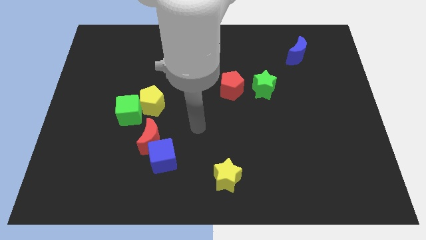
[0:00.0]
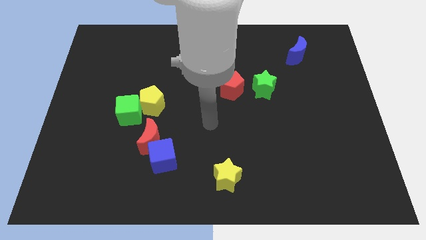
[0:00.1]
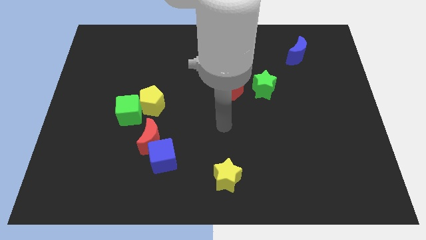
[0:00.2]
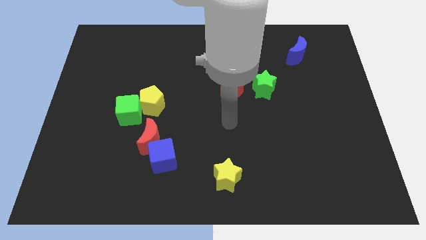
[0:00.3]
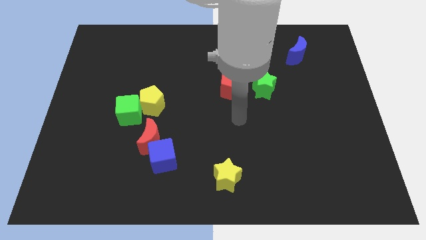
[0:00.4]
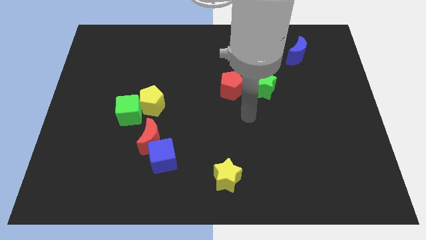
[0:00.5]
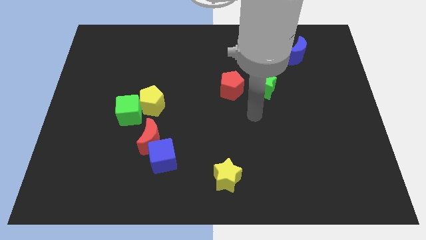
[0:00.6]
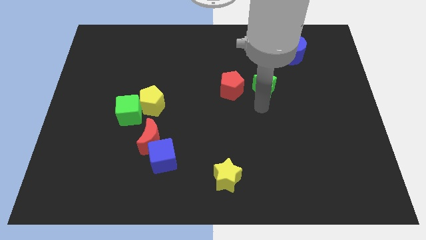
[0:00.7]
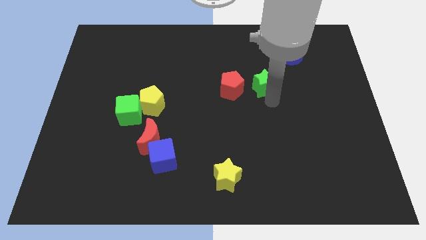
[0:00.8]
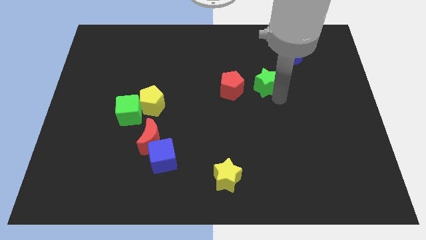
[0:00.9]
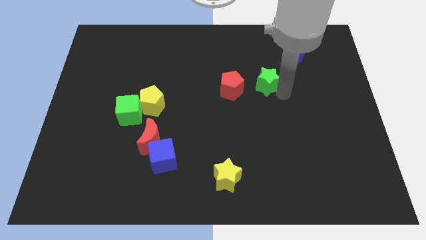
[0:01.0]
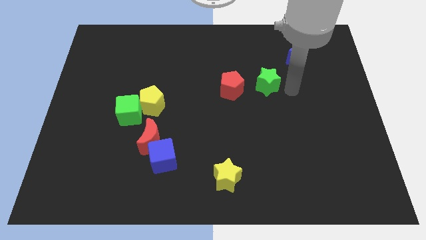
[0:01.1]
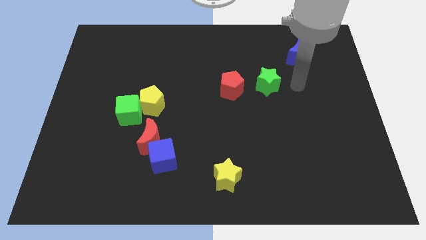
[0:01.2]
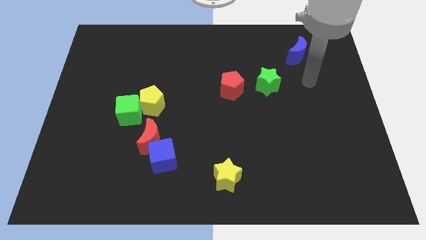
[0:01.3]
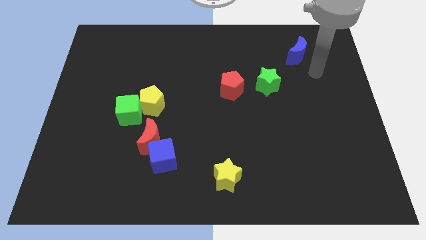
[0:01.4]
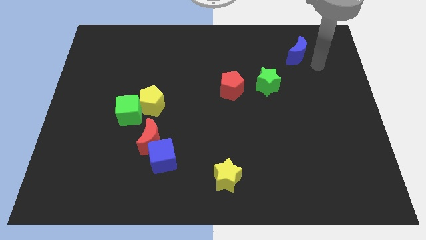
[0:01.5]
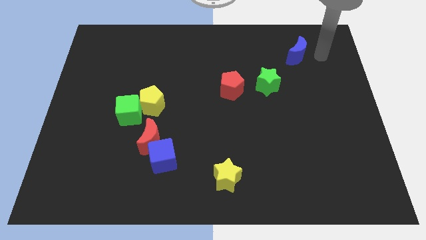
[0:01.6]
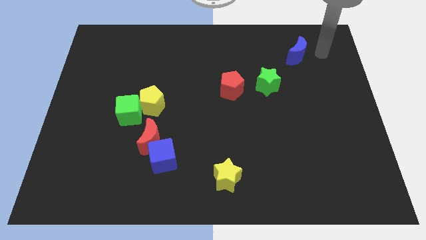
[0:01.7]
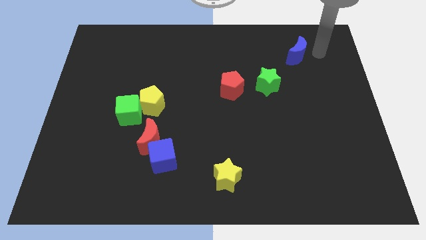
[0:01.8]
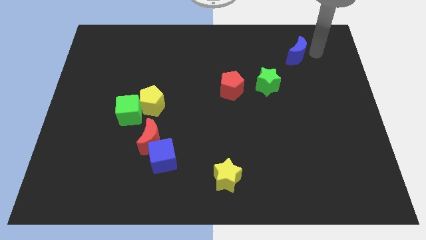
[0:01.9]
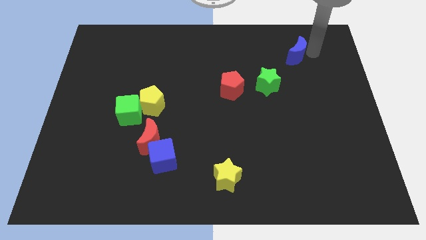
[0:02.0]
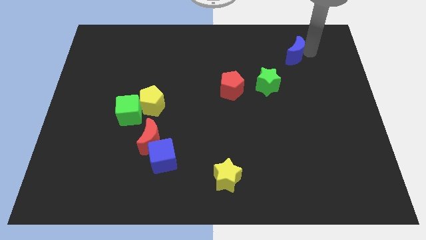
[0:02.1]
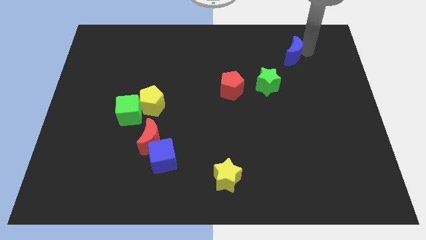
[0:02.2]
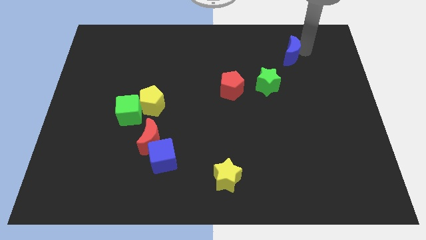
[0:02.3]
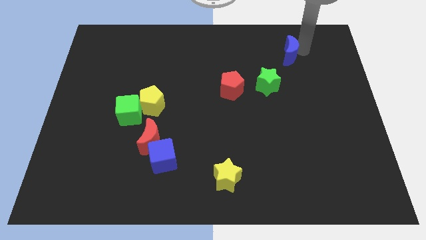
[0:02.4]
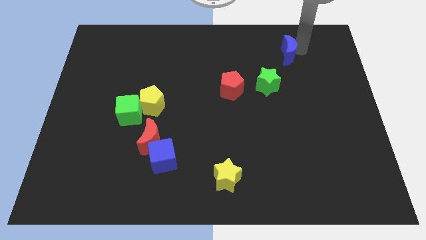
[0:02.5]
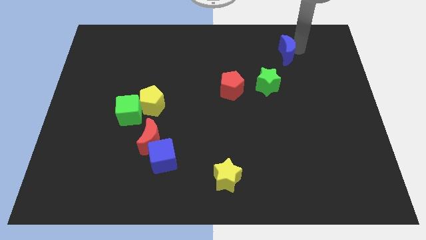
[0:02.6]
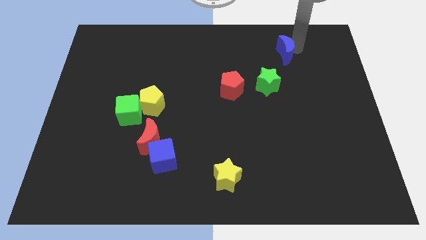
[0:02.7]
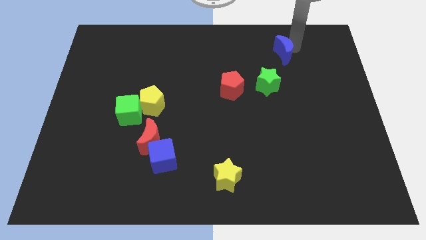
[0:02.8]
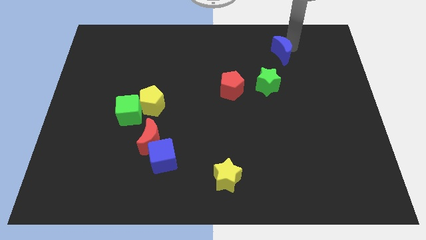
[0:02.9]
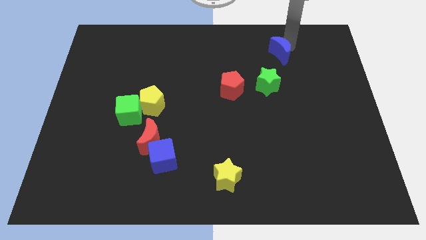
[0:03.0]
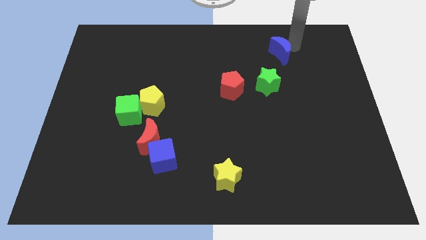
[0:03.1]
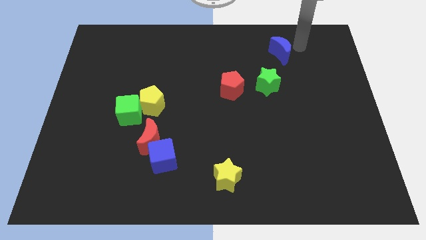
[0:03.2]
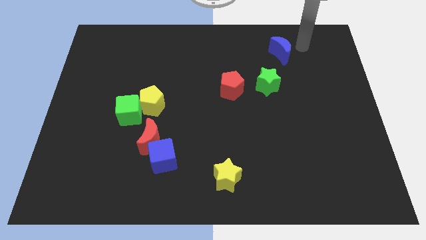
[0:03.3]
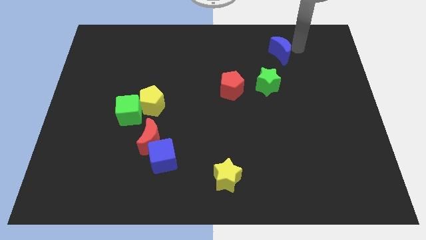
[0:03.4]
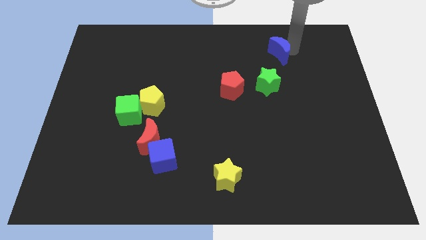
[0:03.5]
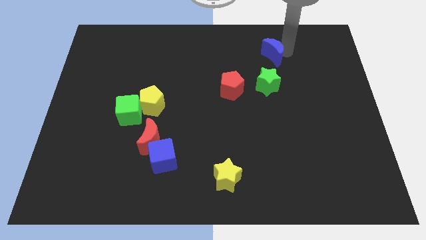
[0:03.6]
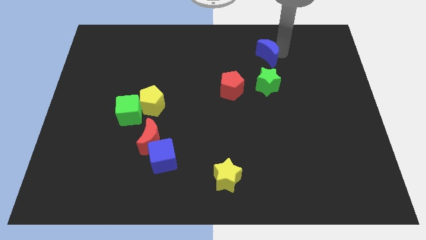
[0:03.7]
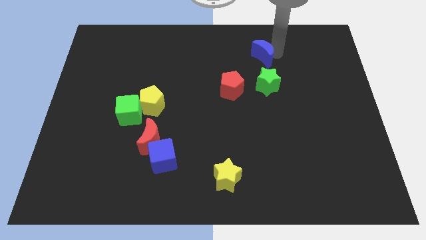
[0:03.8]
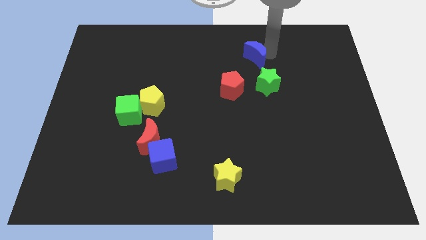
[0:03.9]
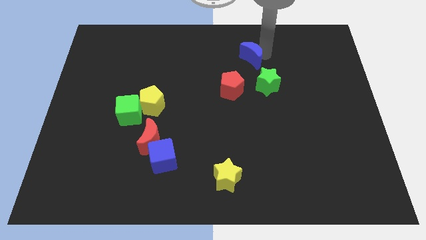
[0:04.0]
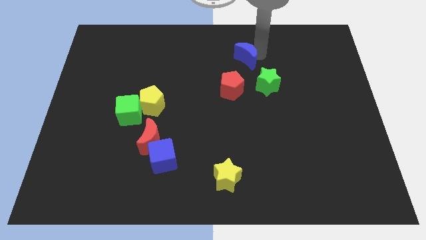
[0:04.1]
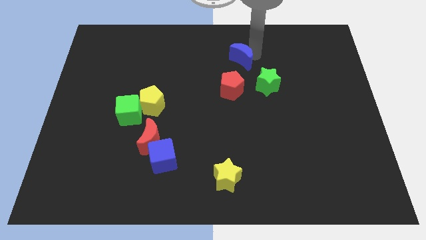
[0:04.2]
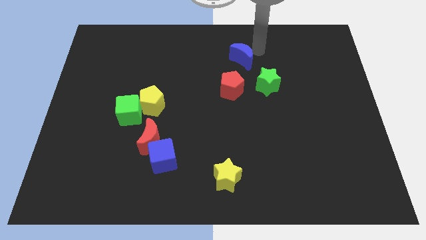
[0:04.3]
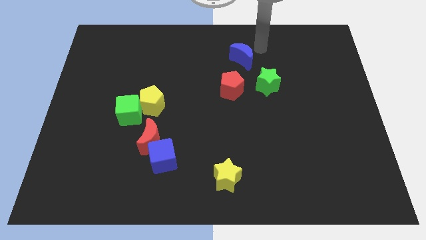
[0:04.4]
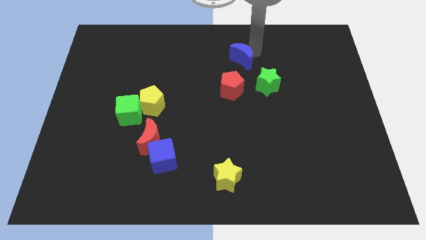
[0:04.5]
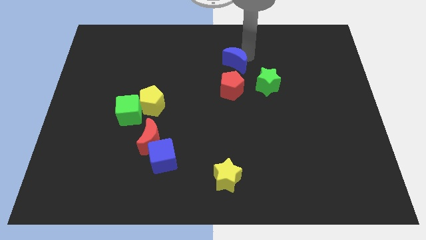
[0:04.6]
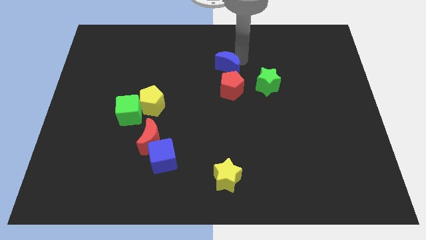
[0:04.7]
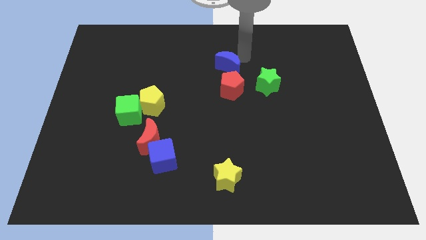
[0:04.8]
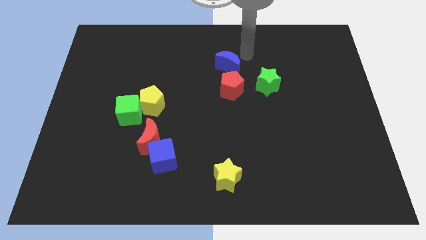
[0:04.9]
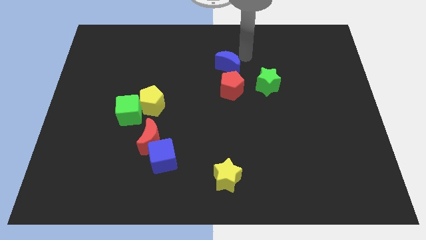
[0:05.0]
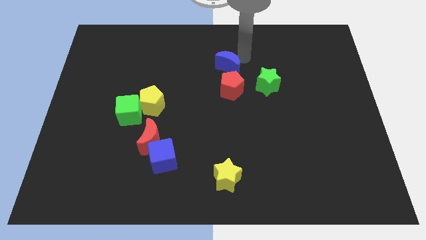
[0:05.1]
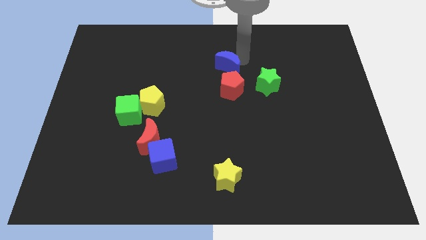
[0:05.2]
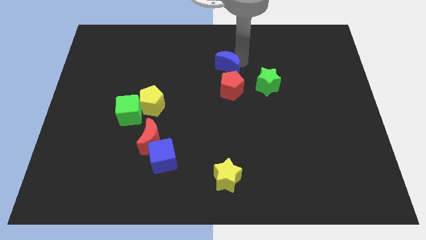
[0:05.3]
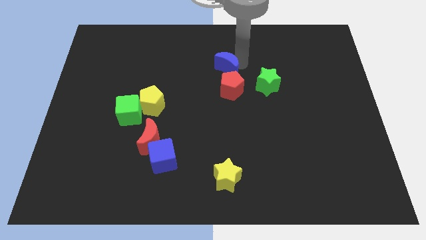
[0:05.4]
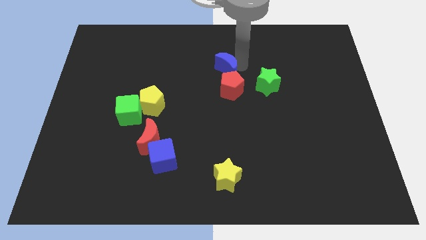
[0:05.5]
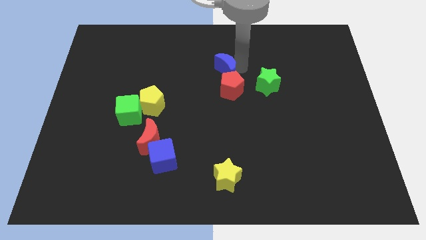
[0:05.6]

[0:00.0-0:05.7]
move the blue moon to the left of the green star
